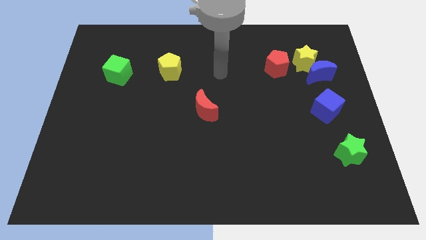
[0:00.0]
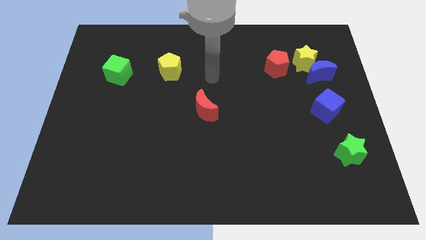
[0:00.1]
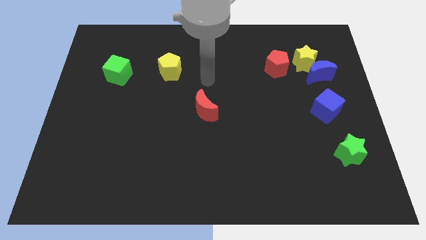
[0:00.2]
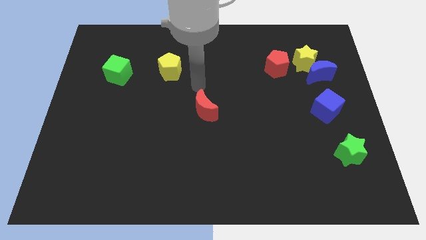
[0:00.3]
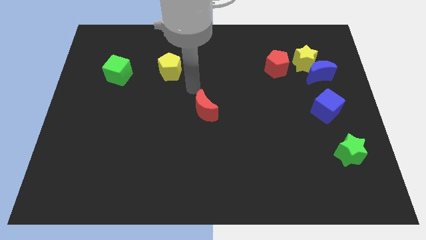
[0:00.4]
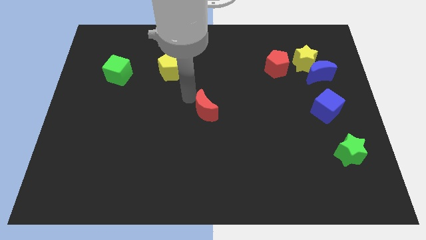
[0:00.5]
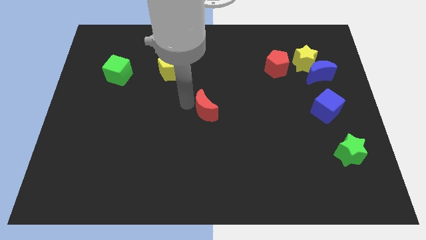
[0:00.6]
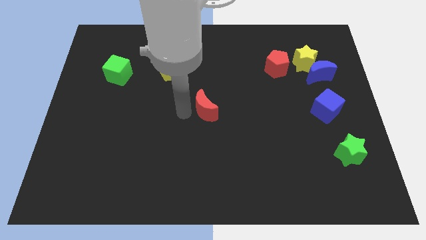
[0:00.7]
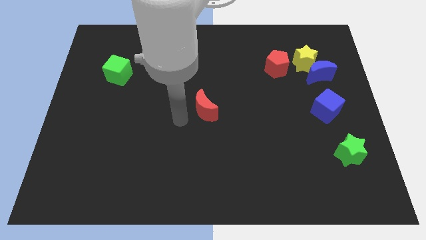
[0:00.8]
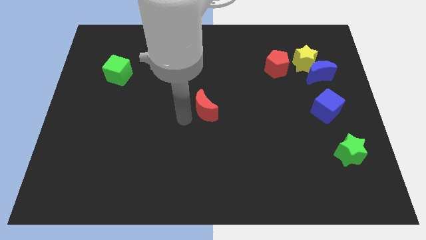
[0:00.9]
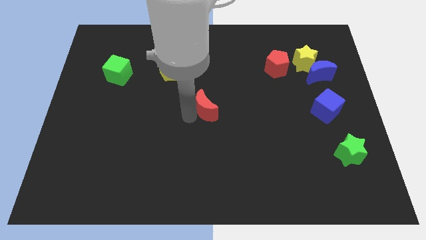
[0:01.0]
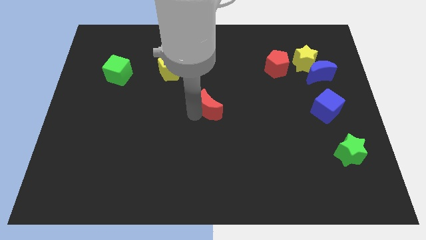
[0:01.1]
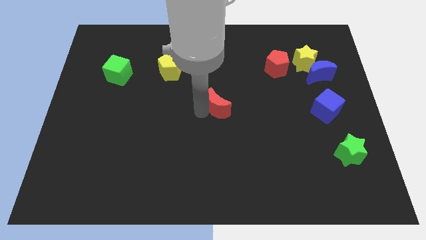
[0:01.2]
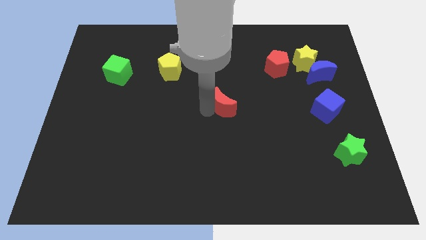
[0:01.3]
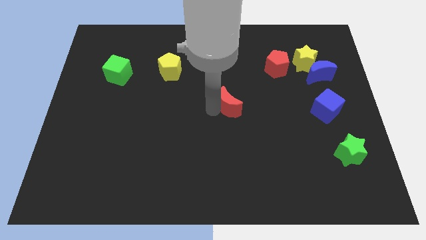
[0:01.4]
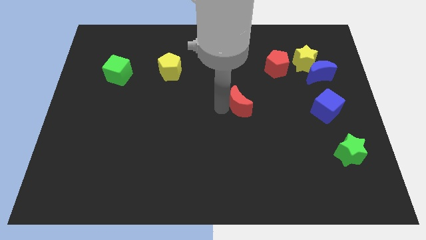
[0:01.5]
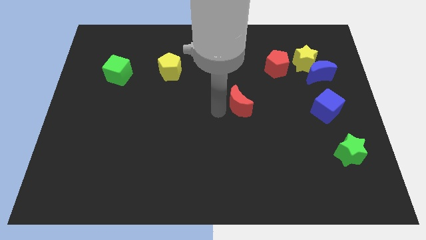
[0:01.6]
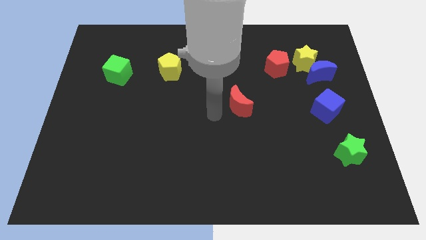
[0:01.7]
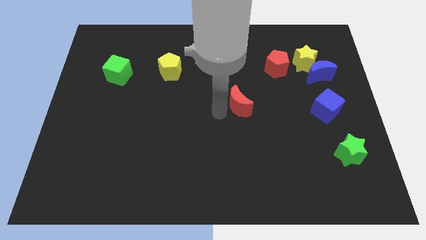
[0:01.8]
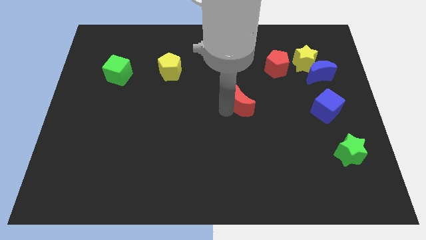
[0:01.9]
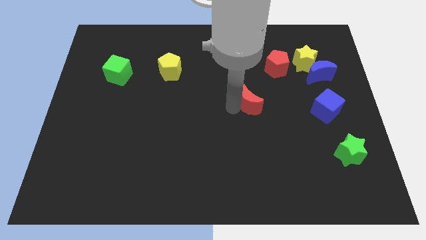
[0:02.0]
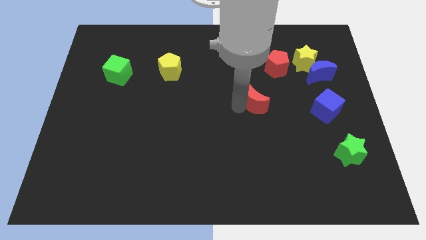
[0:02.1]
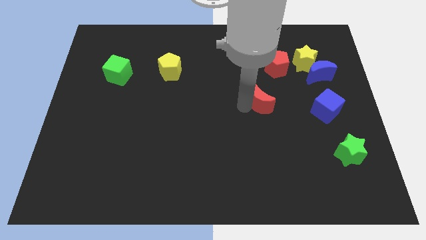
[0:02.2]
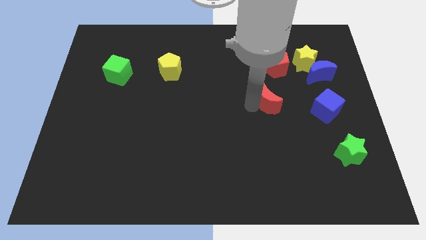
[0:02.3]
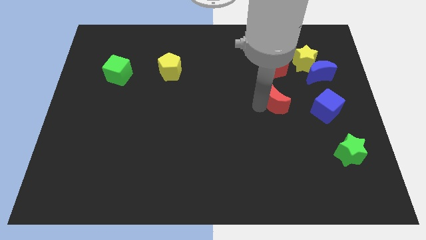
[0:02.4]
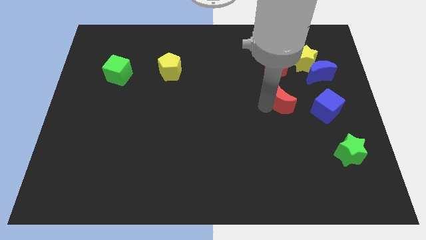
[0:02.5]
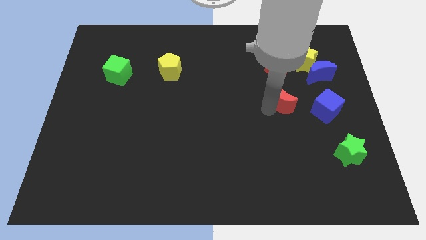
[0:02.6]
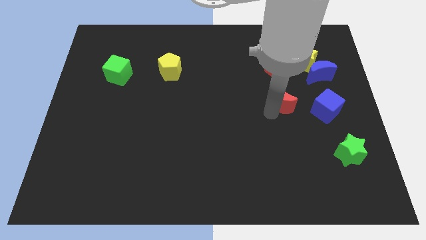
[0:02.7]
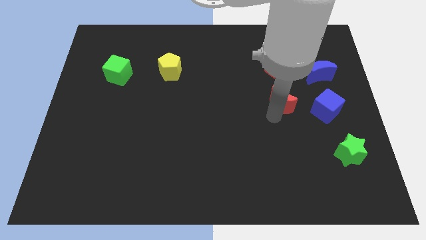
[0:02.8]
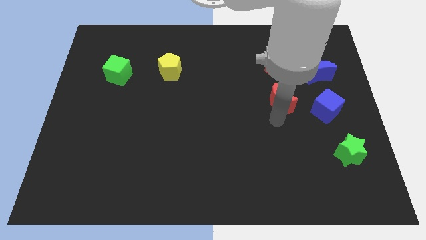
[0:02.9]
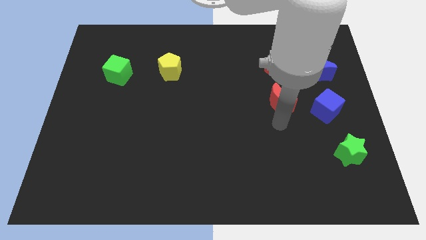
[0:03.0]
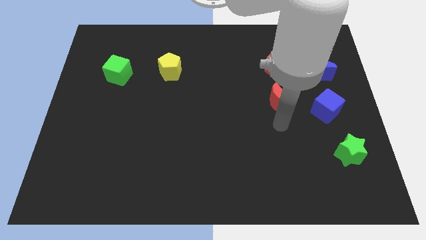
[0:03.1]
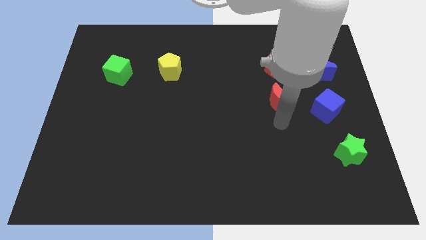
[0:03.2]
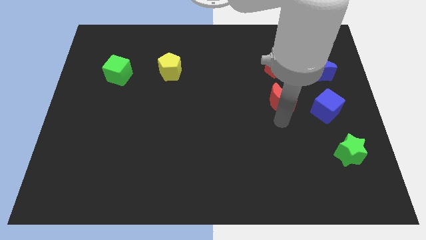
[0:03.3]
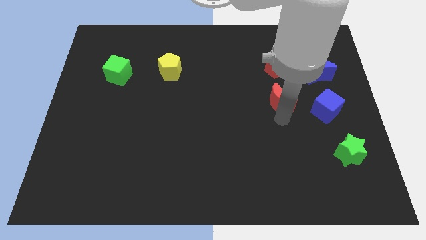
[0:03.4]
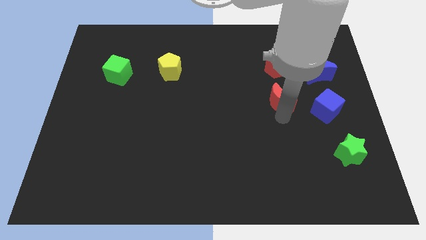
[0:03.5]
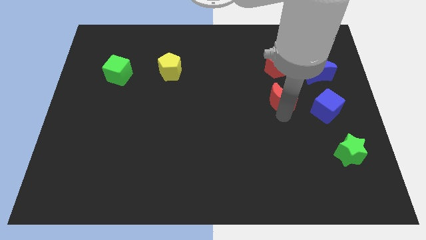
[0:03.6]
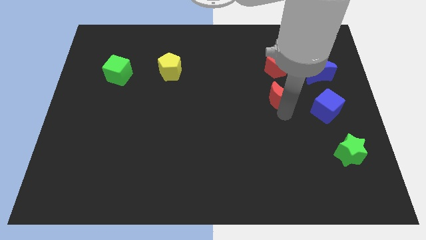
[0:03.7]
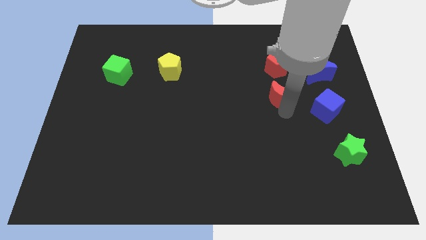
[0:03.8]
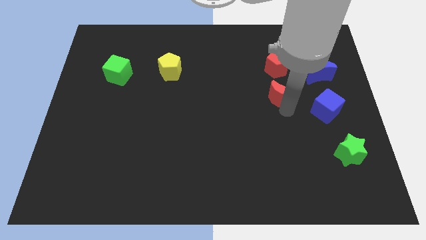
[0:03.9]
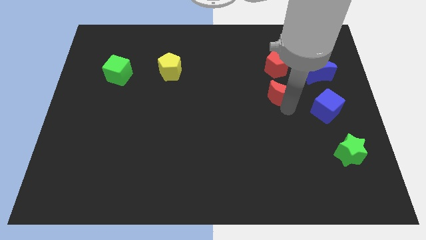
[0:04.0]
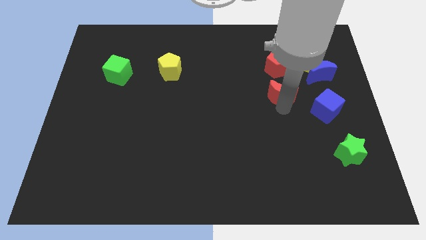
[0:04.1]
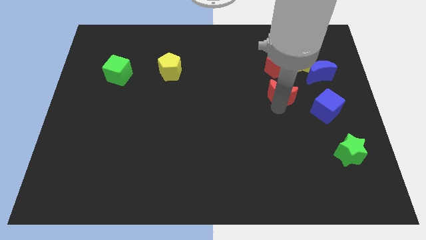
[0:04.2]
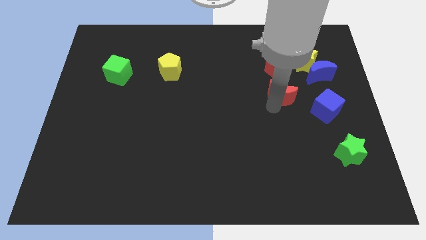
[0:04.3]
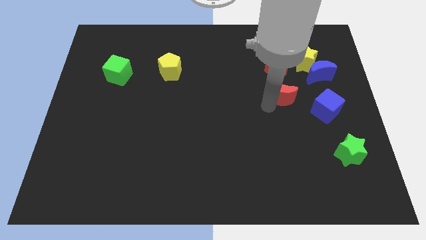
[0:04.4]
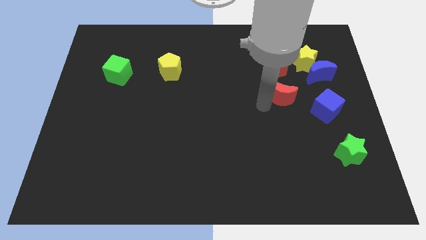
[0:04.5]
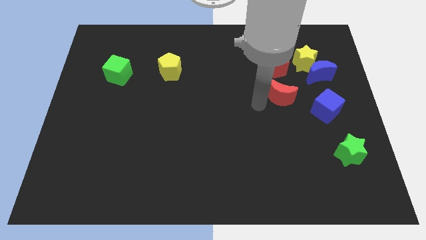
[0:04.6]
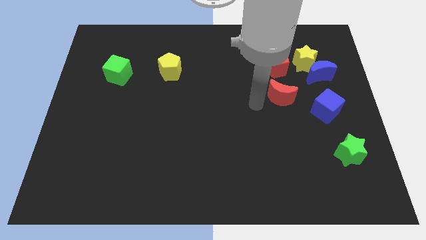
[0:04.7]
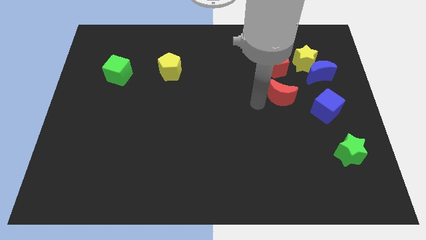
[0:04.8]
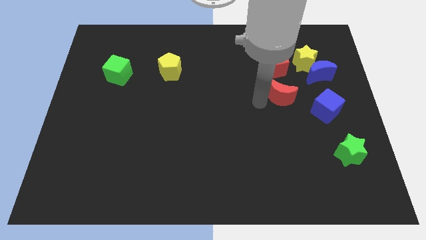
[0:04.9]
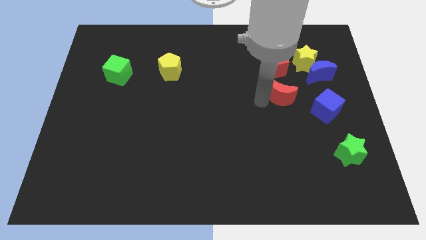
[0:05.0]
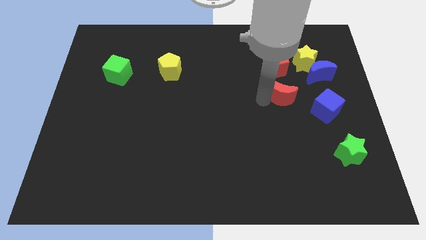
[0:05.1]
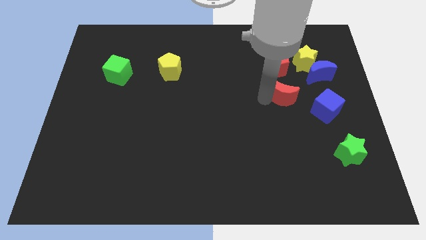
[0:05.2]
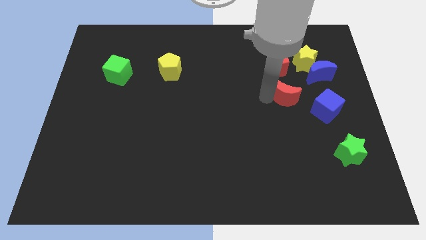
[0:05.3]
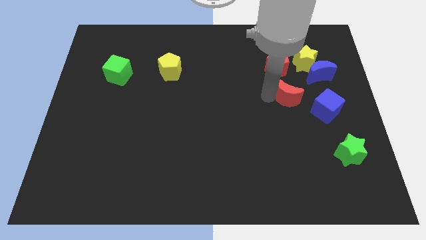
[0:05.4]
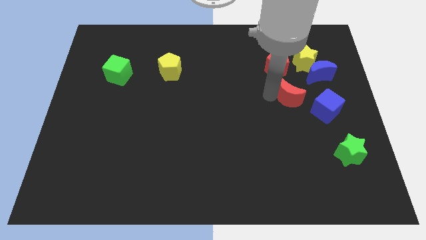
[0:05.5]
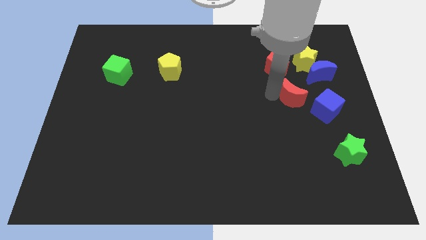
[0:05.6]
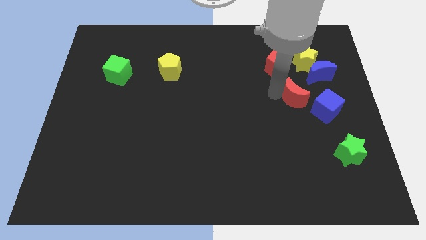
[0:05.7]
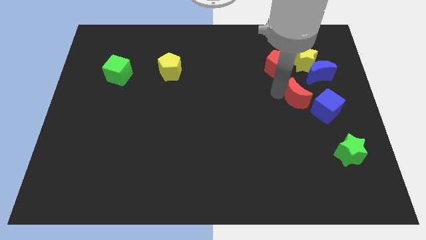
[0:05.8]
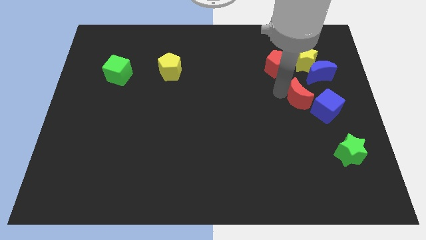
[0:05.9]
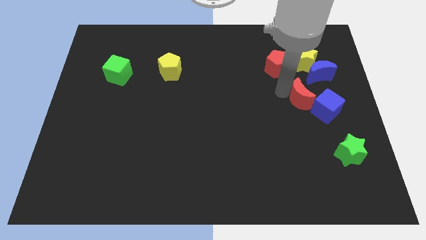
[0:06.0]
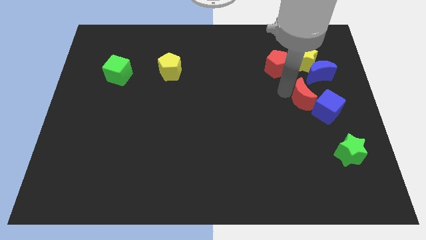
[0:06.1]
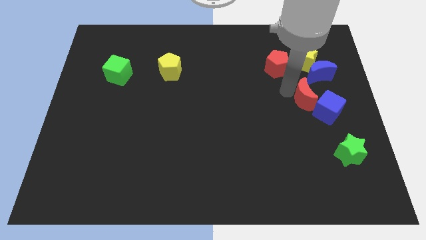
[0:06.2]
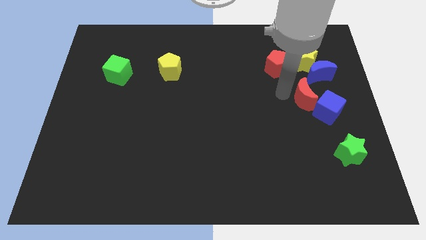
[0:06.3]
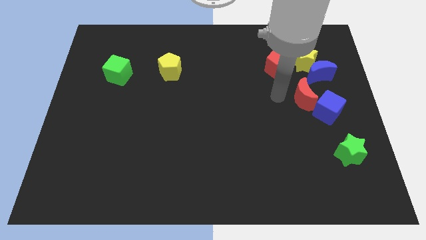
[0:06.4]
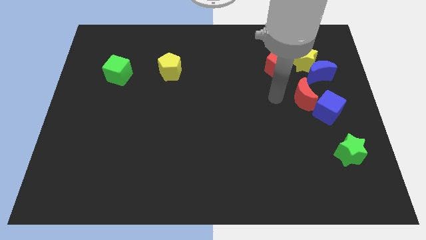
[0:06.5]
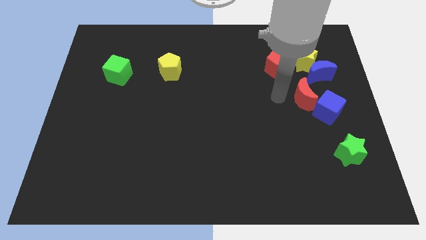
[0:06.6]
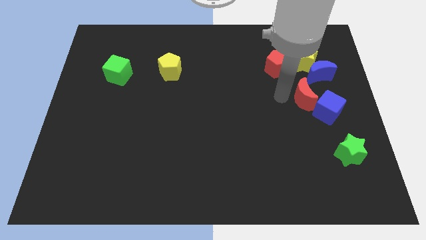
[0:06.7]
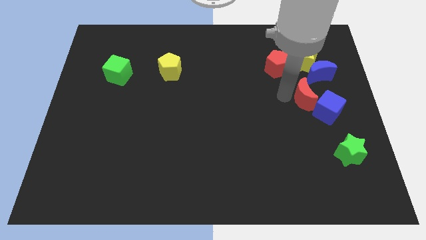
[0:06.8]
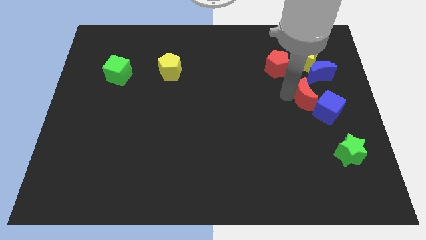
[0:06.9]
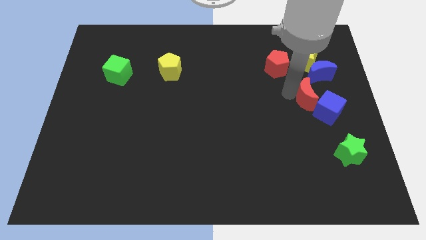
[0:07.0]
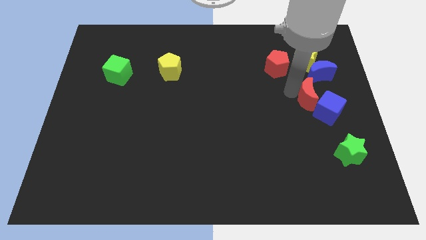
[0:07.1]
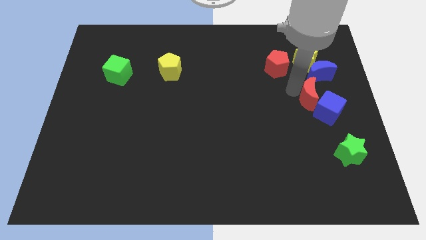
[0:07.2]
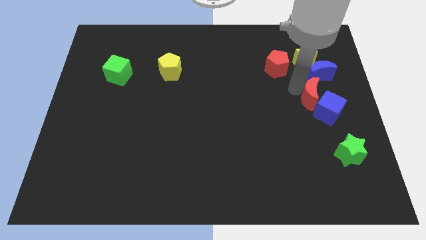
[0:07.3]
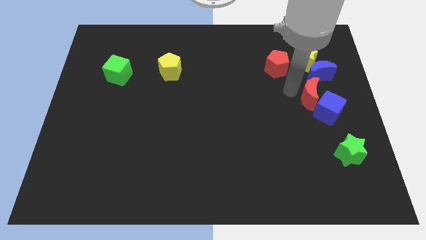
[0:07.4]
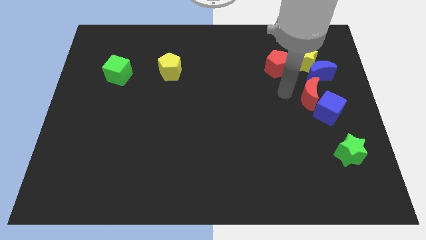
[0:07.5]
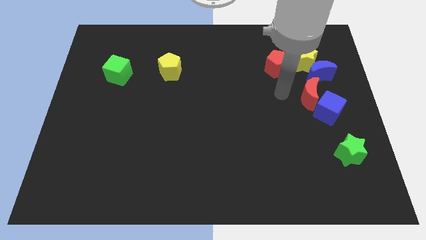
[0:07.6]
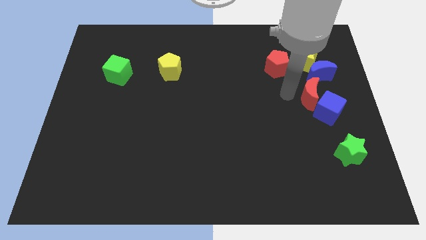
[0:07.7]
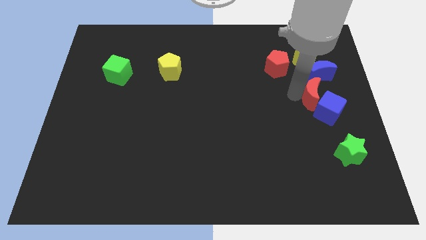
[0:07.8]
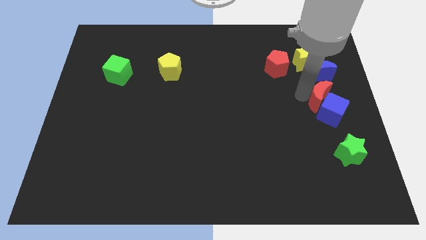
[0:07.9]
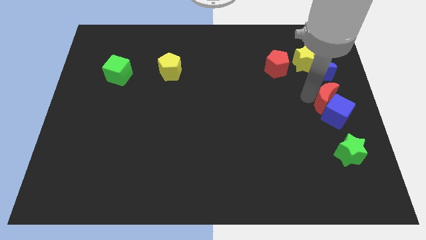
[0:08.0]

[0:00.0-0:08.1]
slide the red moon to the top of the green star
